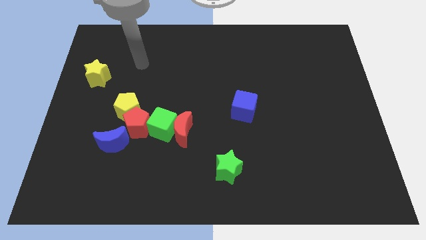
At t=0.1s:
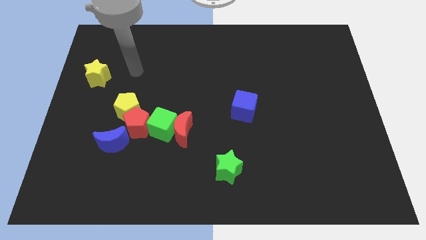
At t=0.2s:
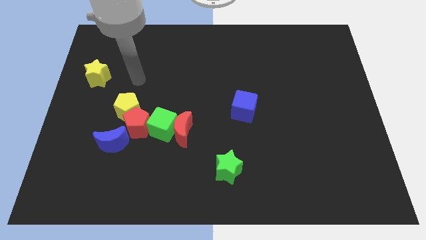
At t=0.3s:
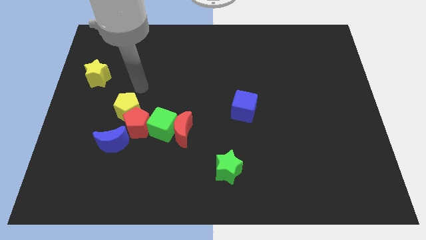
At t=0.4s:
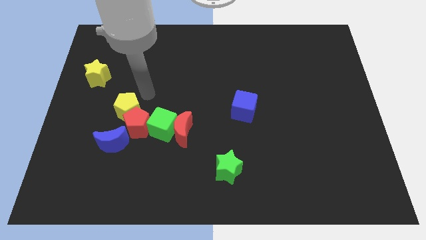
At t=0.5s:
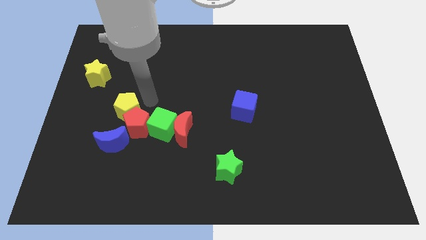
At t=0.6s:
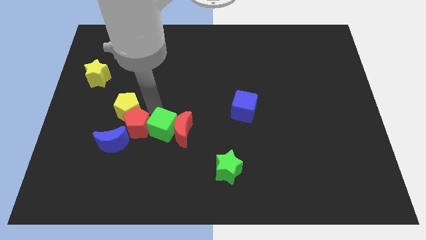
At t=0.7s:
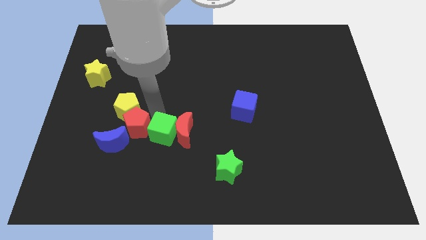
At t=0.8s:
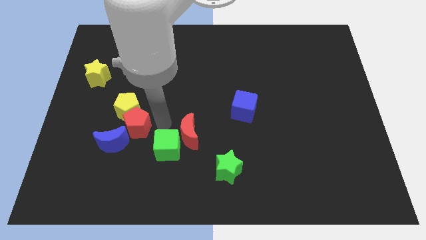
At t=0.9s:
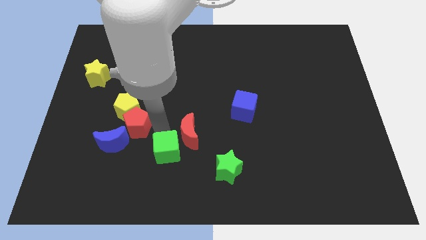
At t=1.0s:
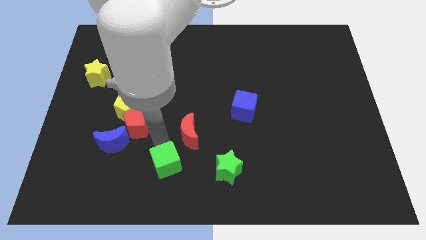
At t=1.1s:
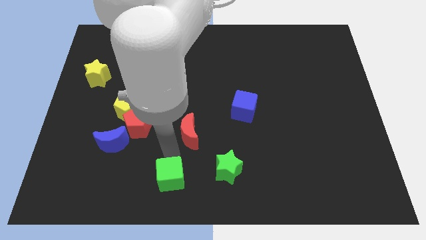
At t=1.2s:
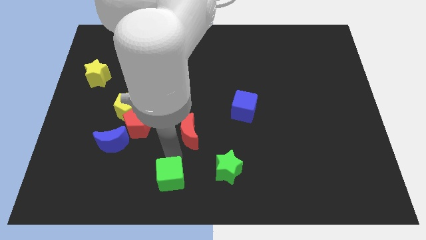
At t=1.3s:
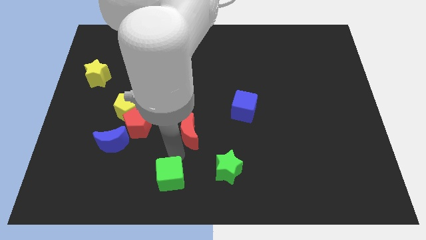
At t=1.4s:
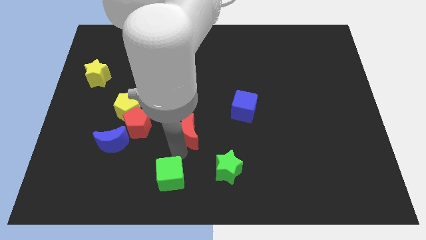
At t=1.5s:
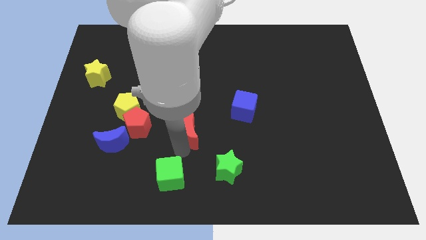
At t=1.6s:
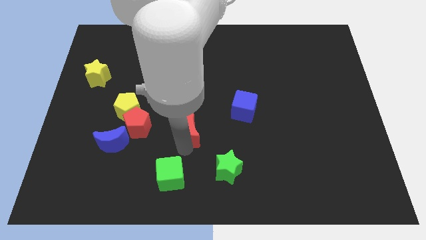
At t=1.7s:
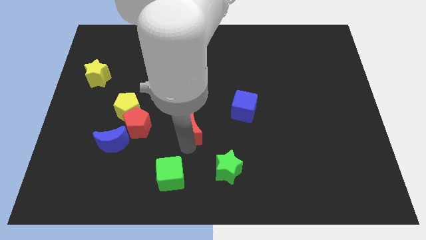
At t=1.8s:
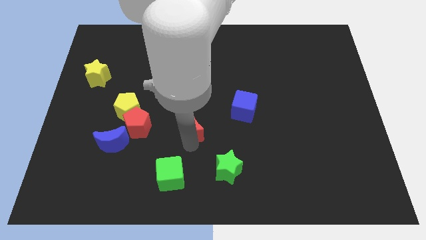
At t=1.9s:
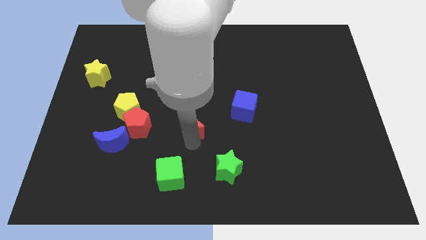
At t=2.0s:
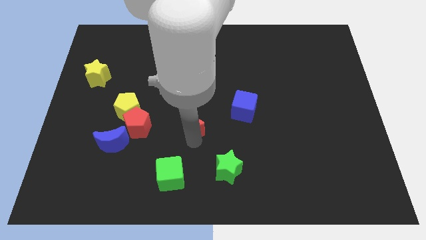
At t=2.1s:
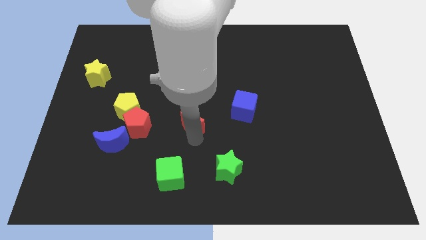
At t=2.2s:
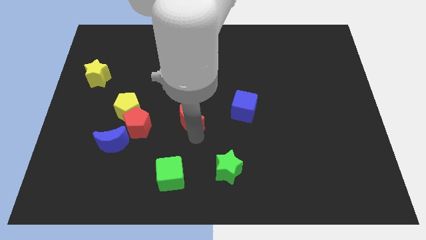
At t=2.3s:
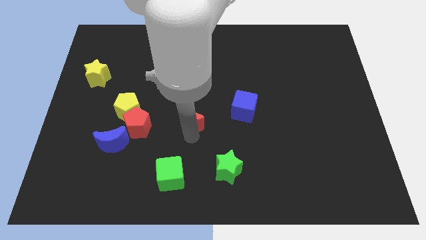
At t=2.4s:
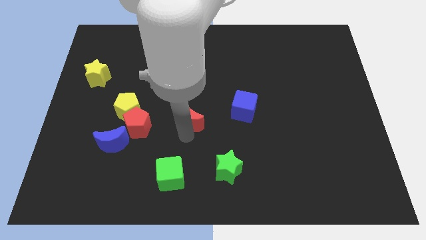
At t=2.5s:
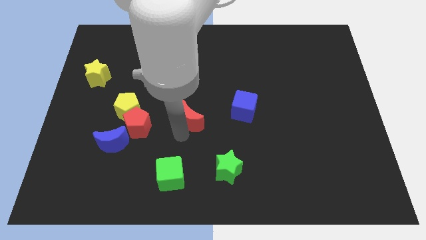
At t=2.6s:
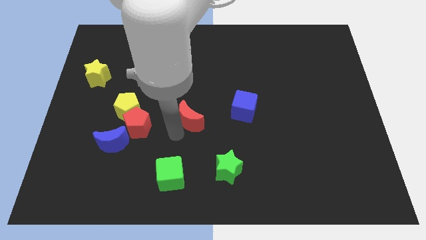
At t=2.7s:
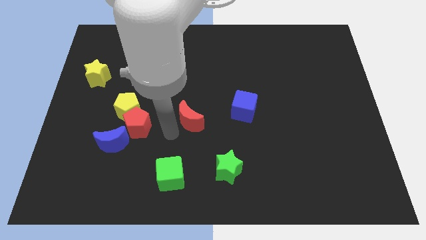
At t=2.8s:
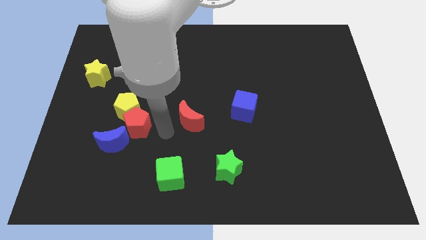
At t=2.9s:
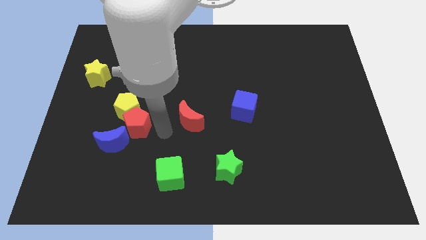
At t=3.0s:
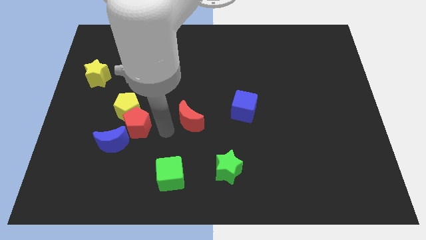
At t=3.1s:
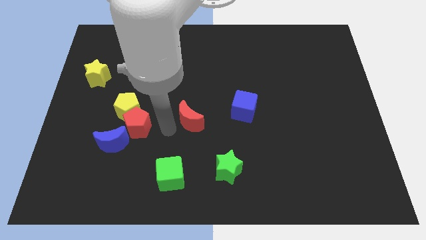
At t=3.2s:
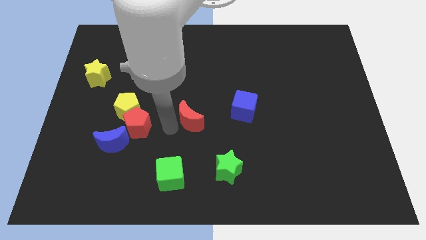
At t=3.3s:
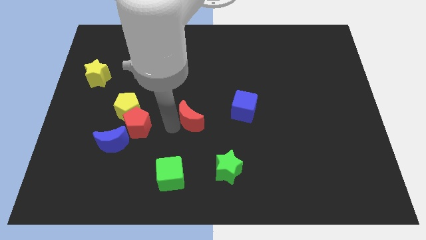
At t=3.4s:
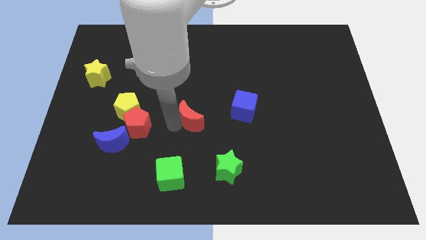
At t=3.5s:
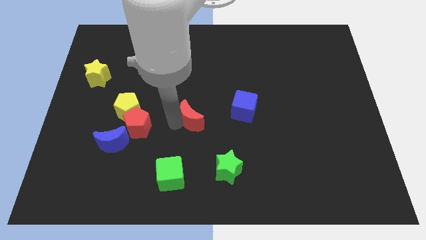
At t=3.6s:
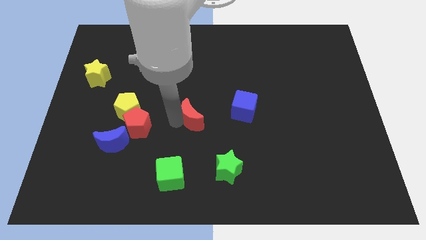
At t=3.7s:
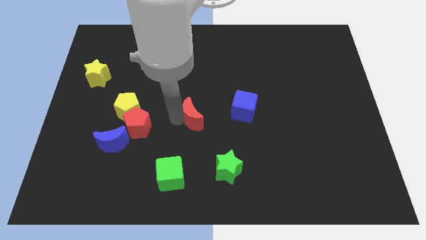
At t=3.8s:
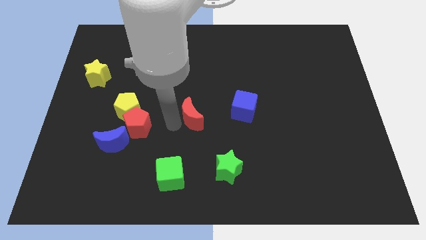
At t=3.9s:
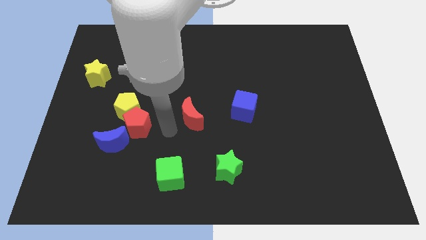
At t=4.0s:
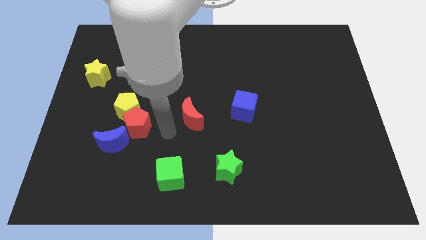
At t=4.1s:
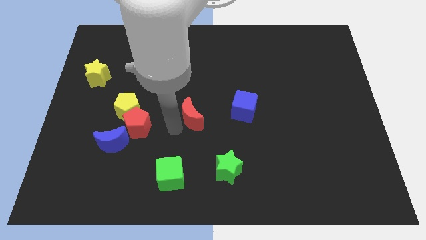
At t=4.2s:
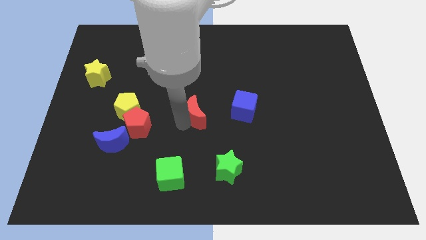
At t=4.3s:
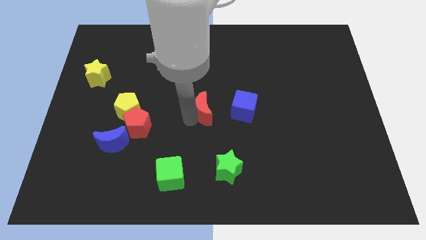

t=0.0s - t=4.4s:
push the red moon upwards and then right a bit

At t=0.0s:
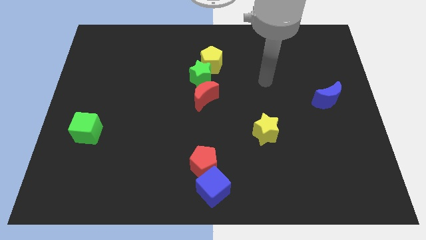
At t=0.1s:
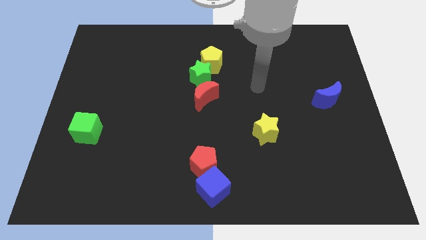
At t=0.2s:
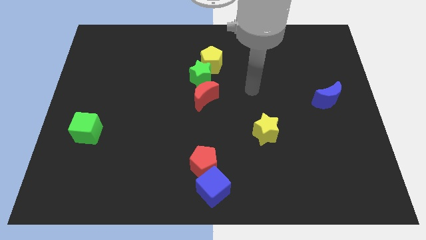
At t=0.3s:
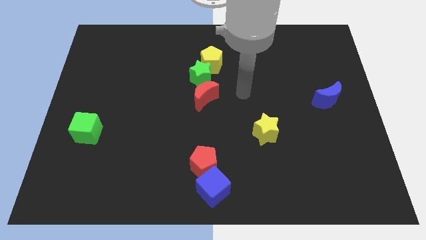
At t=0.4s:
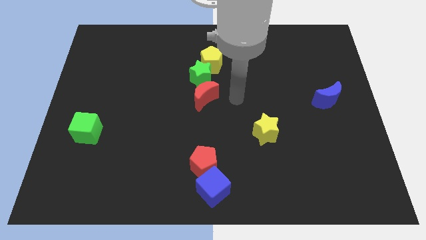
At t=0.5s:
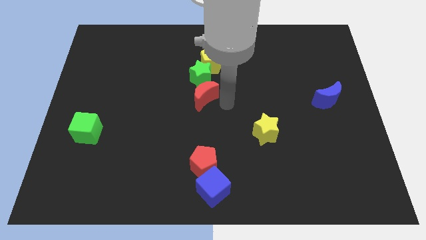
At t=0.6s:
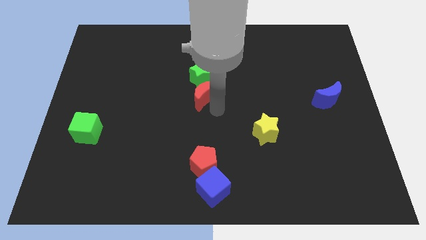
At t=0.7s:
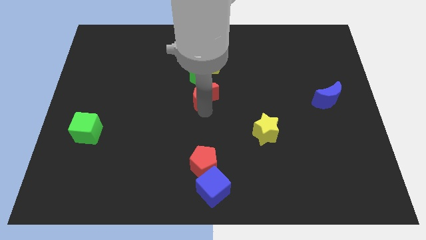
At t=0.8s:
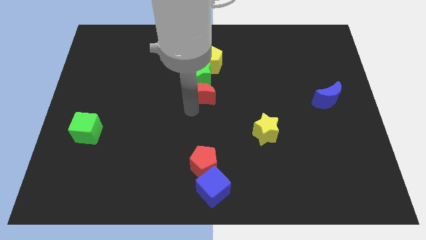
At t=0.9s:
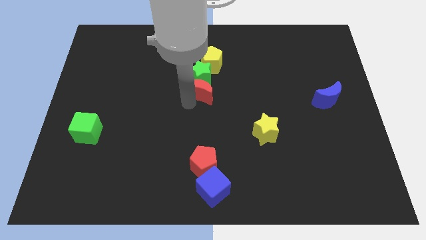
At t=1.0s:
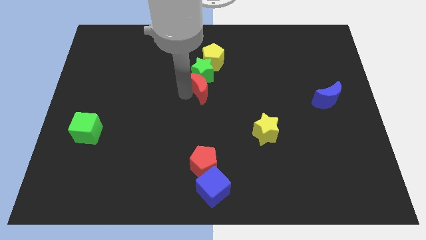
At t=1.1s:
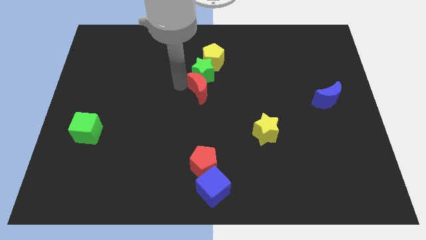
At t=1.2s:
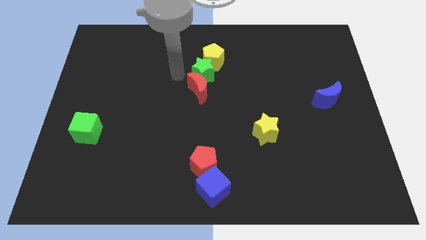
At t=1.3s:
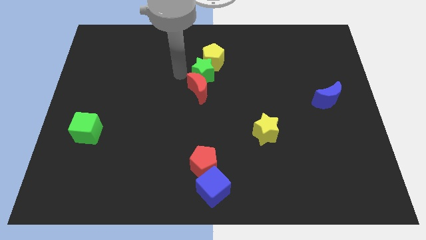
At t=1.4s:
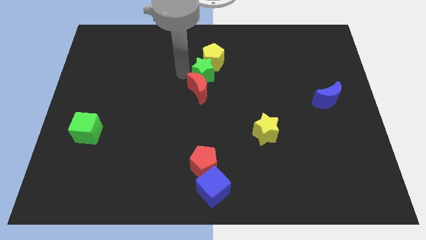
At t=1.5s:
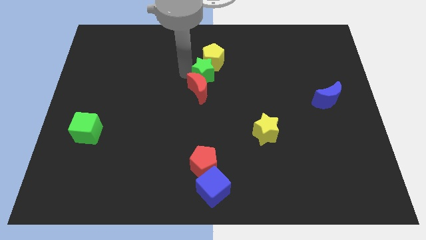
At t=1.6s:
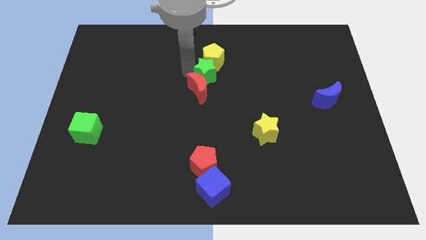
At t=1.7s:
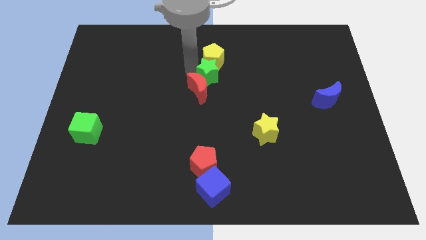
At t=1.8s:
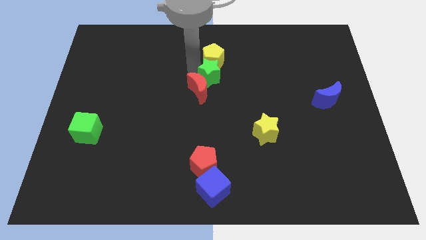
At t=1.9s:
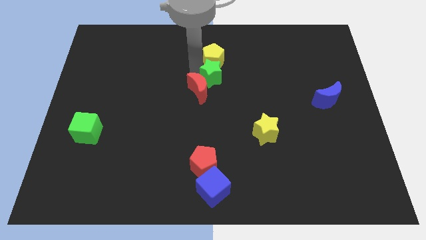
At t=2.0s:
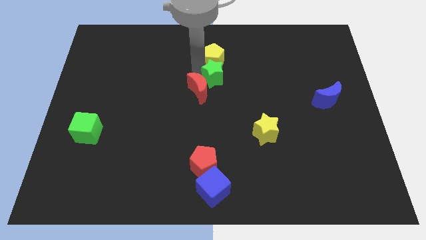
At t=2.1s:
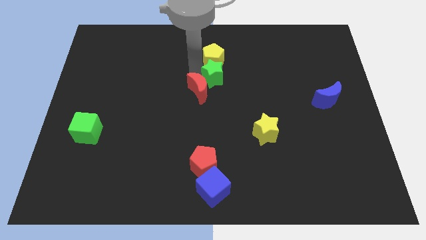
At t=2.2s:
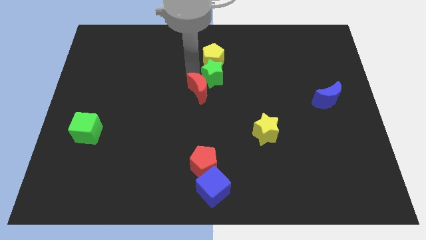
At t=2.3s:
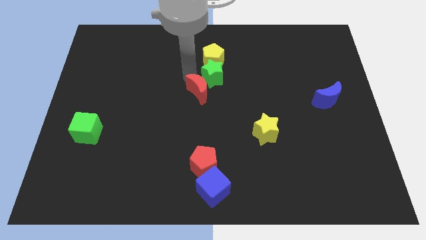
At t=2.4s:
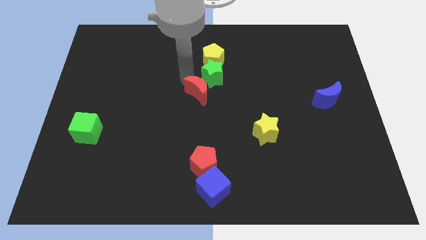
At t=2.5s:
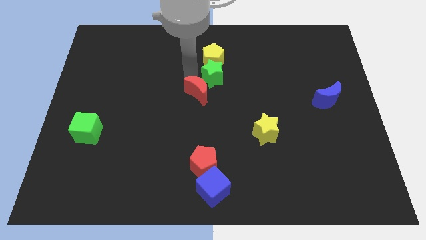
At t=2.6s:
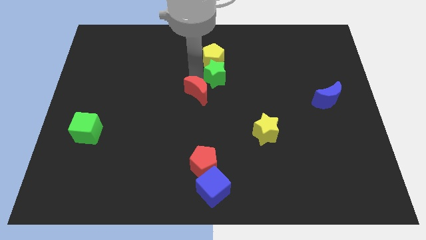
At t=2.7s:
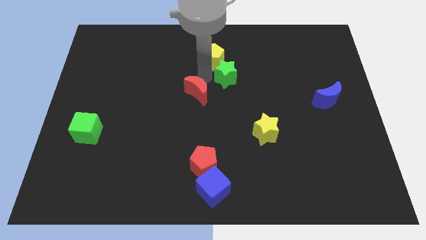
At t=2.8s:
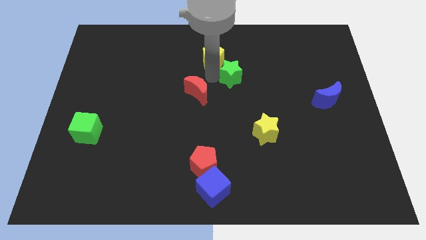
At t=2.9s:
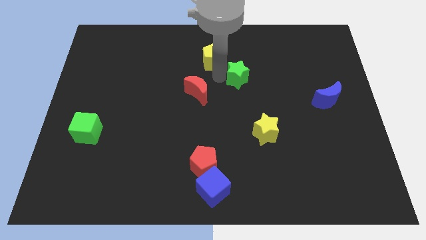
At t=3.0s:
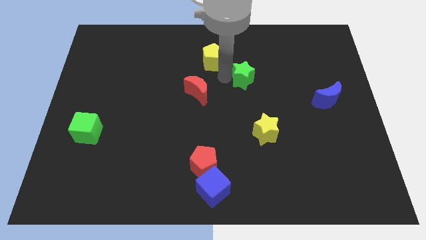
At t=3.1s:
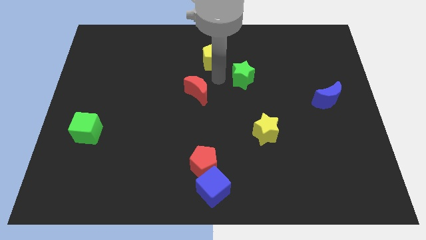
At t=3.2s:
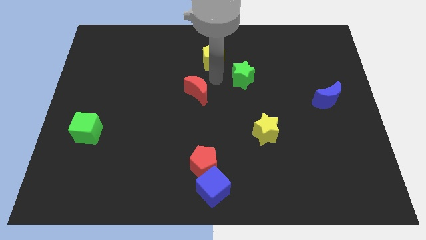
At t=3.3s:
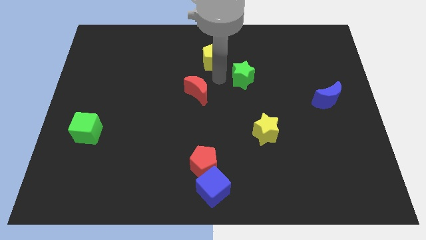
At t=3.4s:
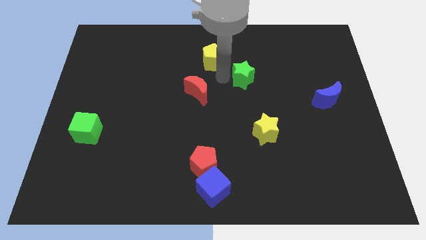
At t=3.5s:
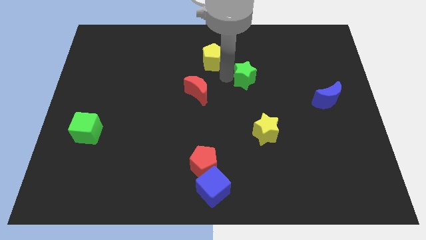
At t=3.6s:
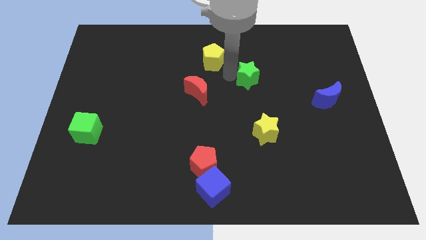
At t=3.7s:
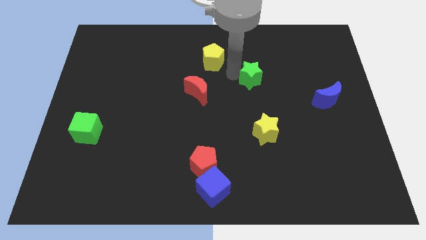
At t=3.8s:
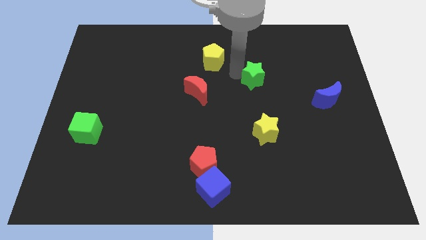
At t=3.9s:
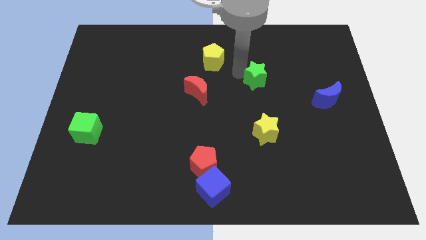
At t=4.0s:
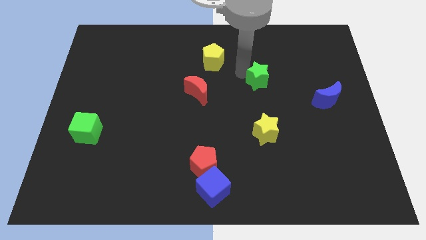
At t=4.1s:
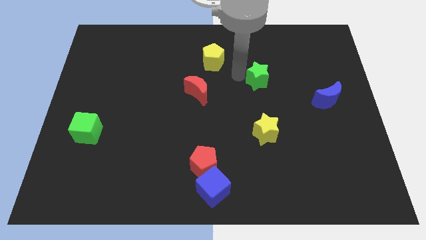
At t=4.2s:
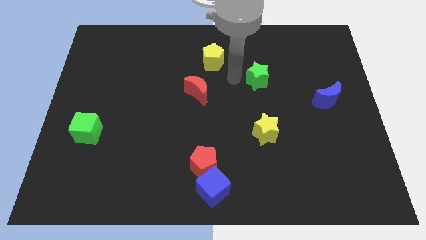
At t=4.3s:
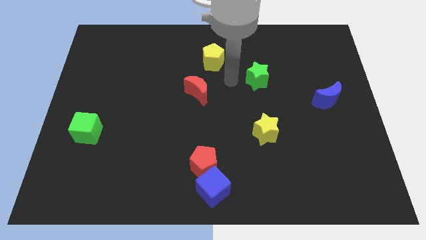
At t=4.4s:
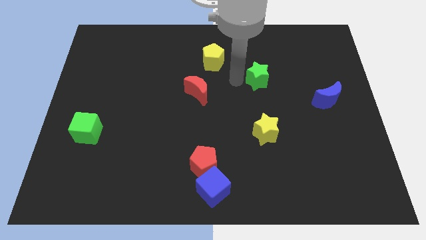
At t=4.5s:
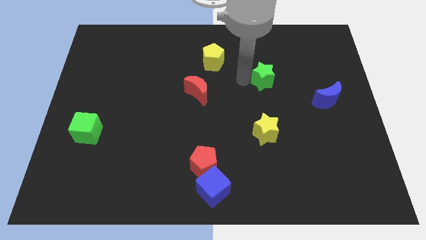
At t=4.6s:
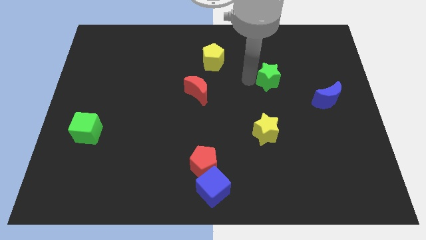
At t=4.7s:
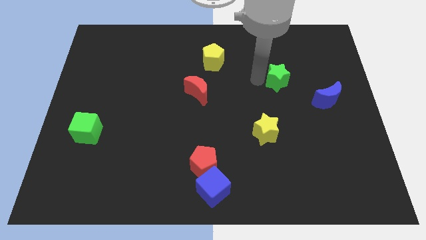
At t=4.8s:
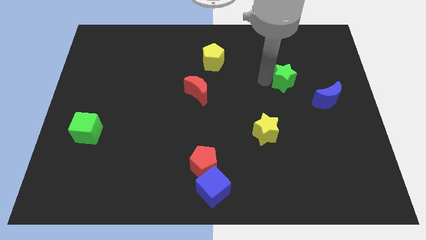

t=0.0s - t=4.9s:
move the green star right
